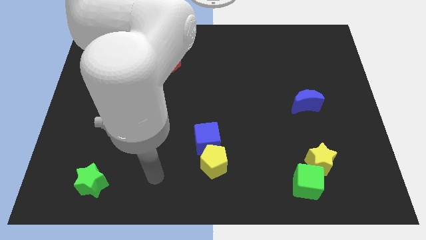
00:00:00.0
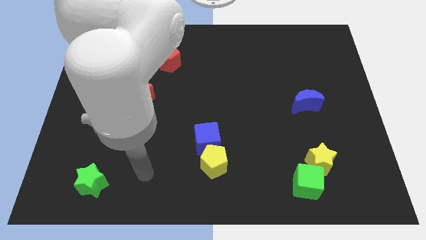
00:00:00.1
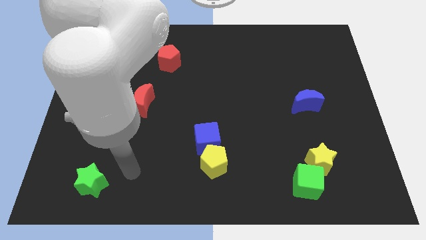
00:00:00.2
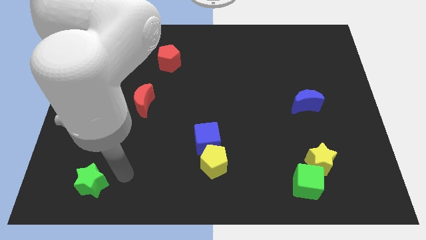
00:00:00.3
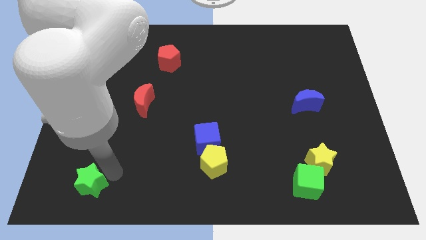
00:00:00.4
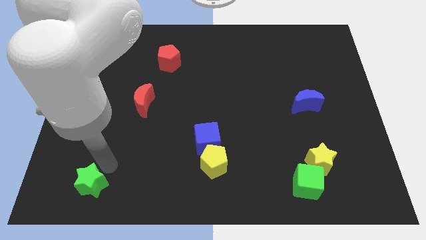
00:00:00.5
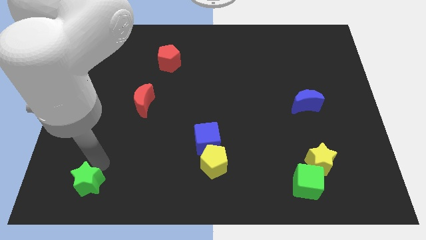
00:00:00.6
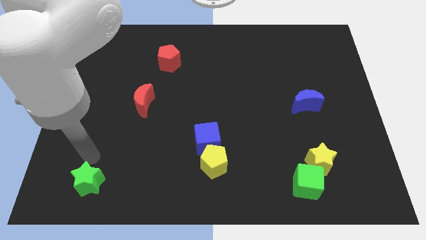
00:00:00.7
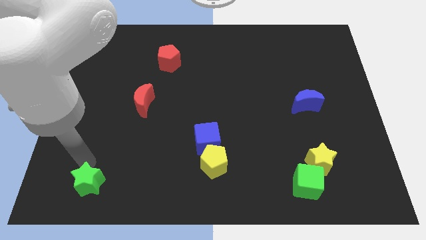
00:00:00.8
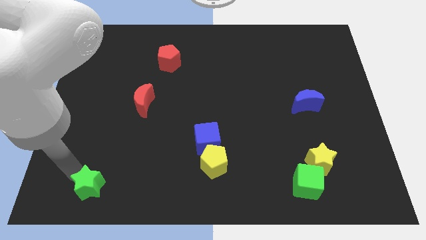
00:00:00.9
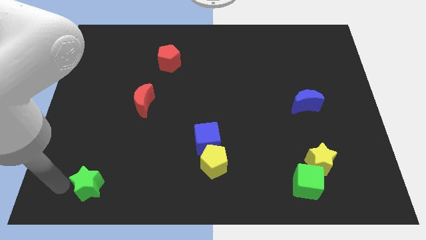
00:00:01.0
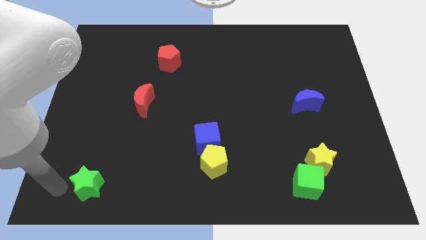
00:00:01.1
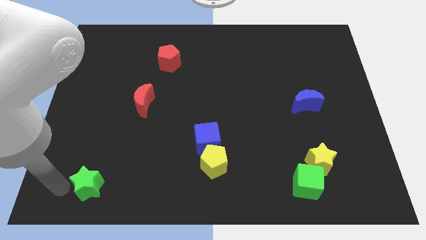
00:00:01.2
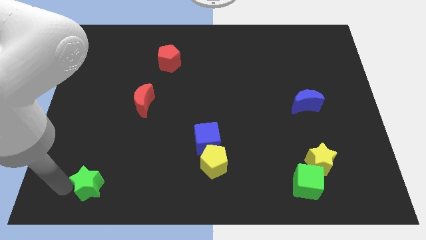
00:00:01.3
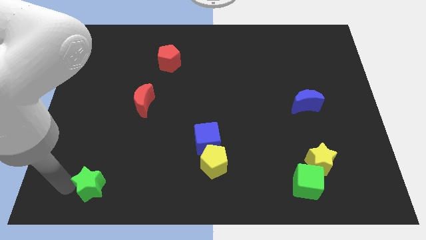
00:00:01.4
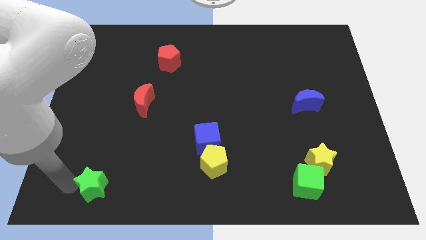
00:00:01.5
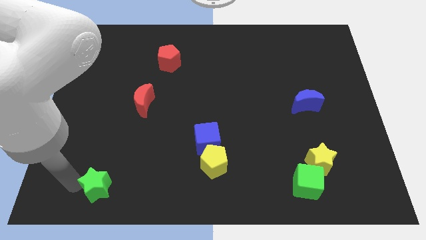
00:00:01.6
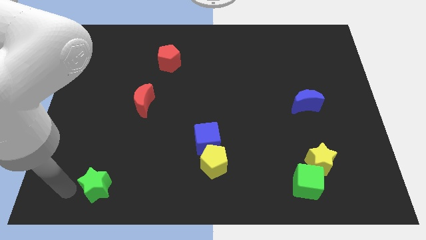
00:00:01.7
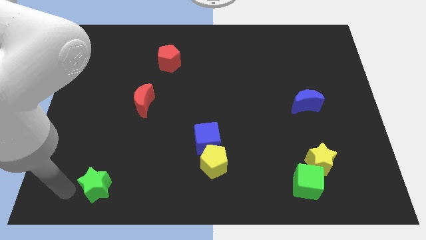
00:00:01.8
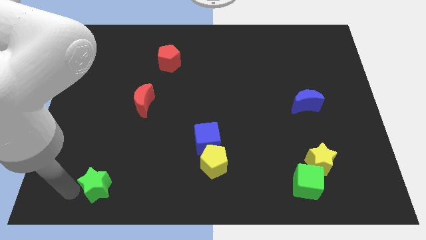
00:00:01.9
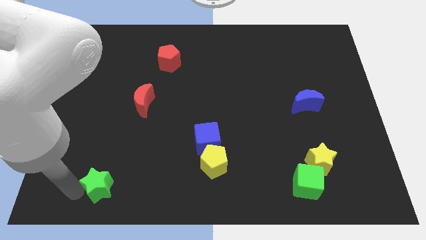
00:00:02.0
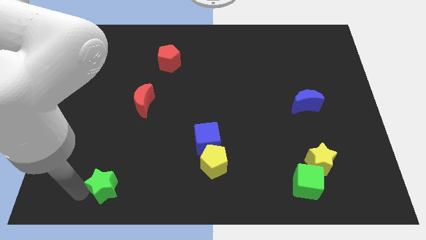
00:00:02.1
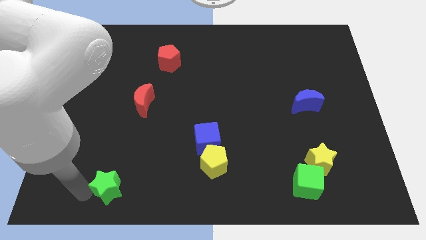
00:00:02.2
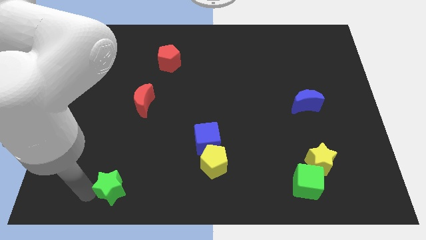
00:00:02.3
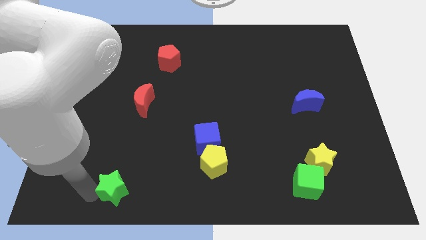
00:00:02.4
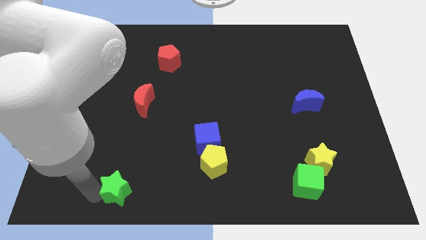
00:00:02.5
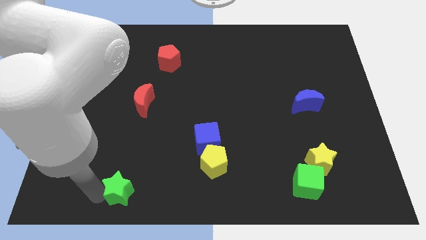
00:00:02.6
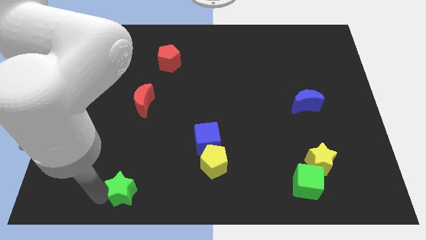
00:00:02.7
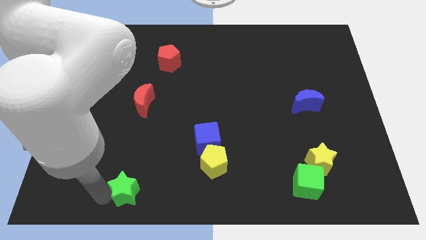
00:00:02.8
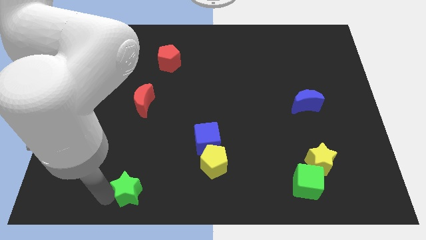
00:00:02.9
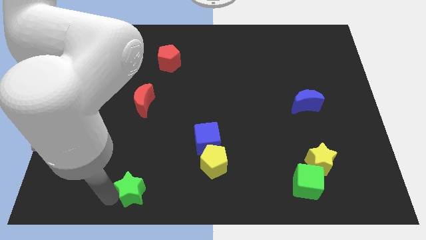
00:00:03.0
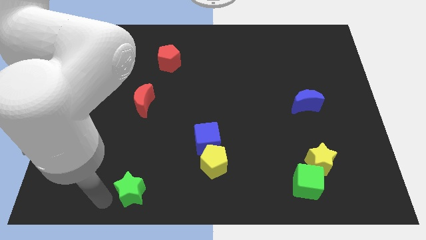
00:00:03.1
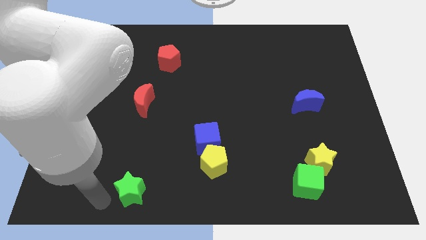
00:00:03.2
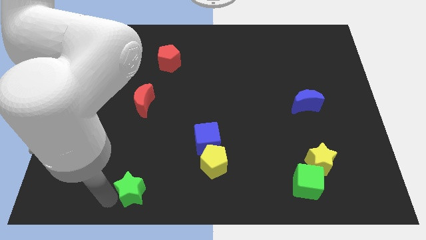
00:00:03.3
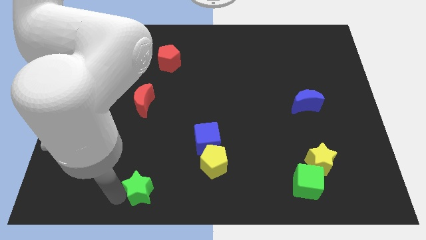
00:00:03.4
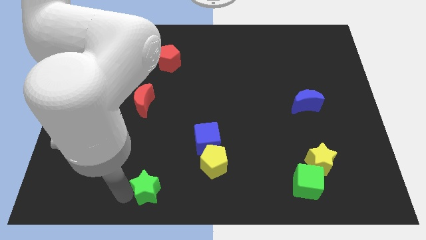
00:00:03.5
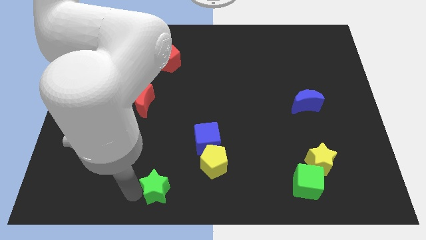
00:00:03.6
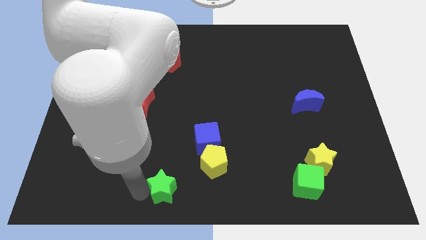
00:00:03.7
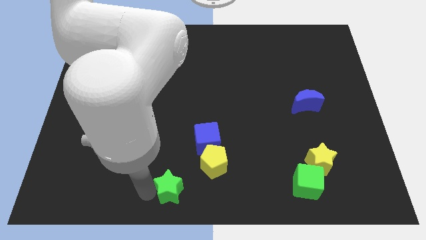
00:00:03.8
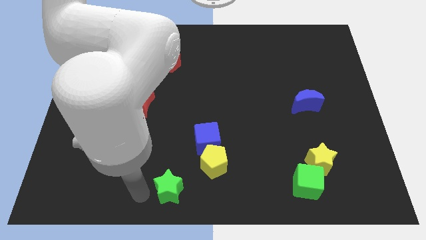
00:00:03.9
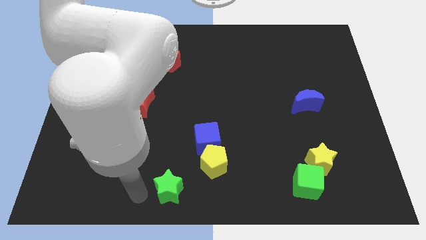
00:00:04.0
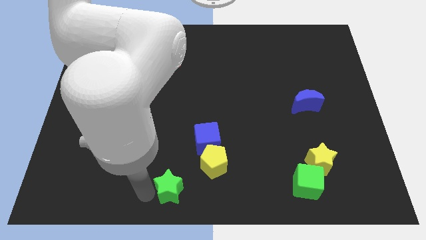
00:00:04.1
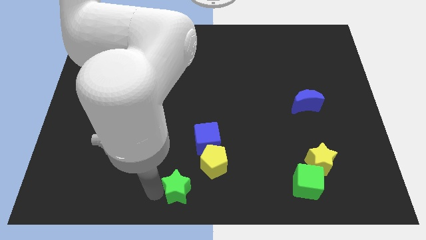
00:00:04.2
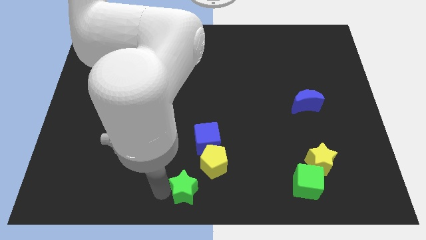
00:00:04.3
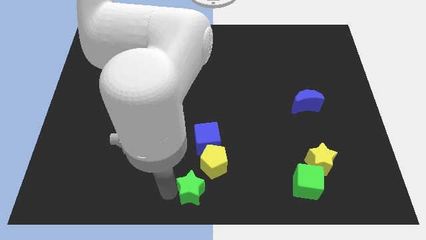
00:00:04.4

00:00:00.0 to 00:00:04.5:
push the green star to the right

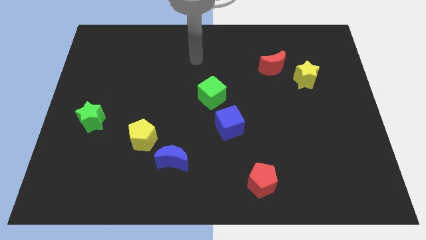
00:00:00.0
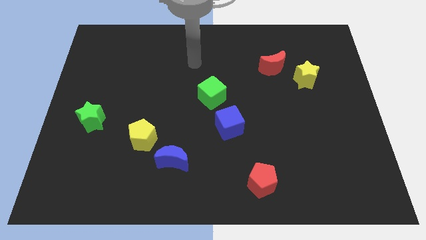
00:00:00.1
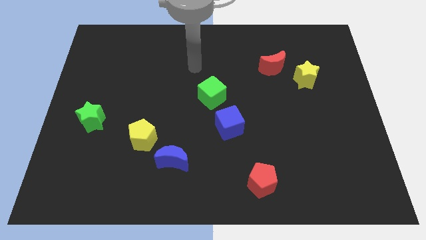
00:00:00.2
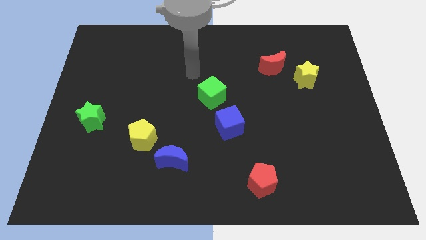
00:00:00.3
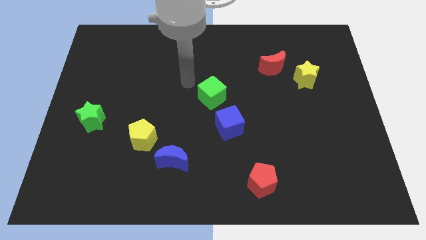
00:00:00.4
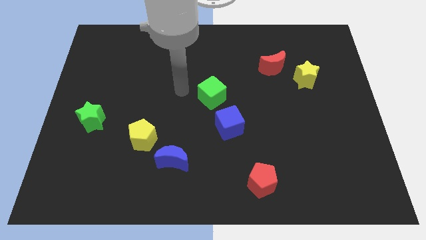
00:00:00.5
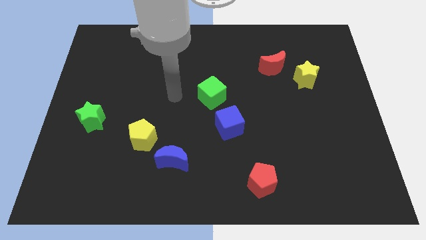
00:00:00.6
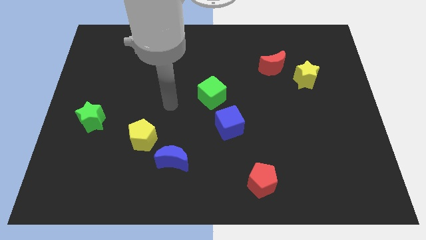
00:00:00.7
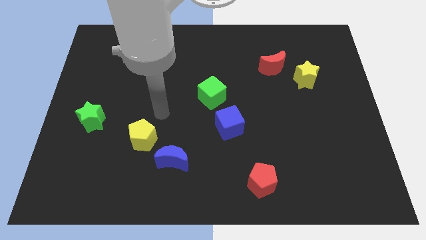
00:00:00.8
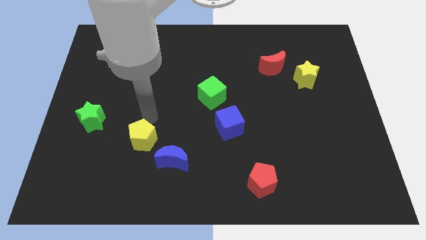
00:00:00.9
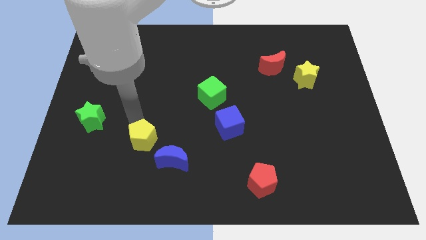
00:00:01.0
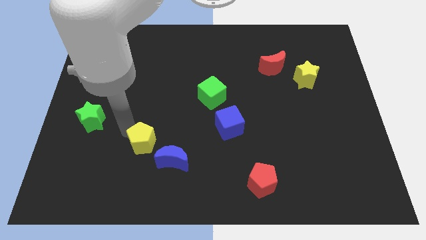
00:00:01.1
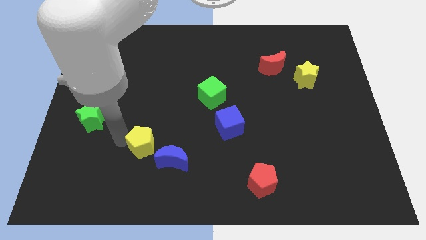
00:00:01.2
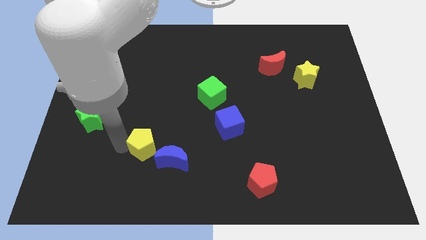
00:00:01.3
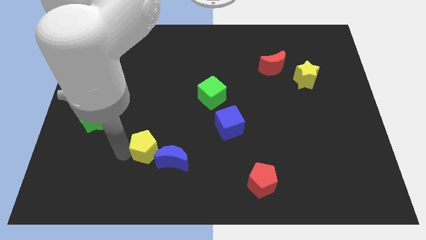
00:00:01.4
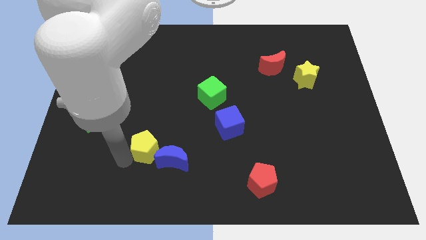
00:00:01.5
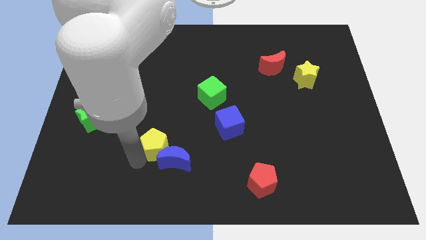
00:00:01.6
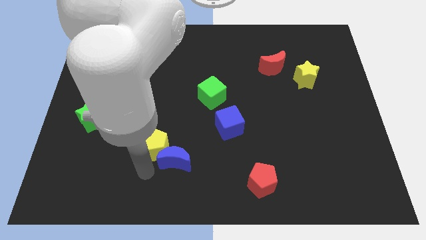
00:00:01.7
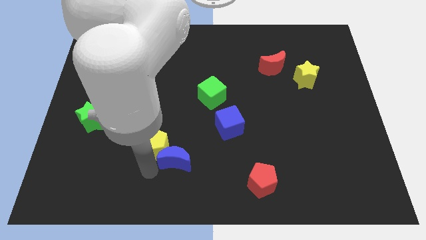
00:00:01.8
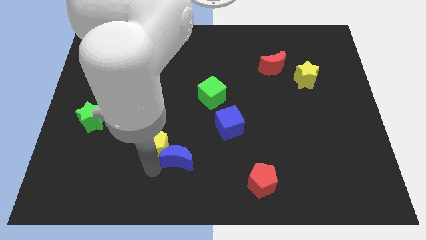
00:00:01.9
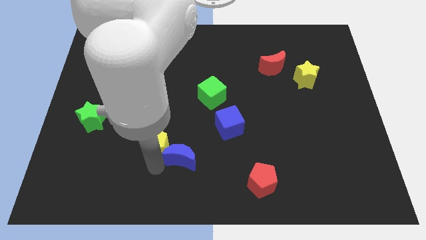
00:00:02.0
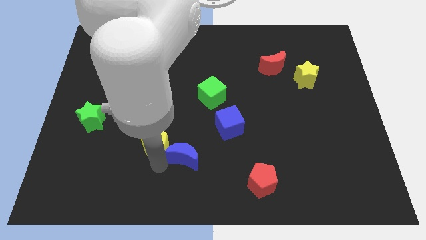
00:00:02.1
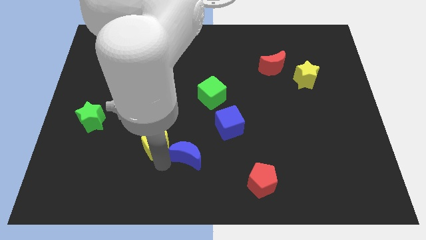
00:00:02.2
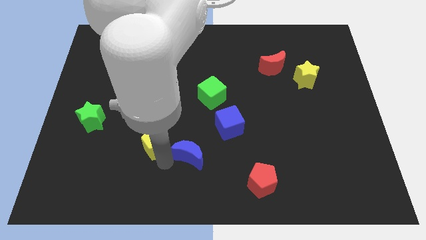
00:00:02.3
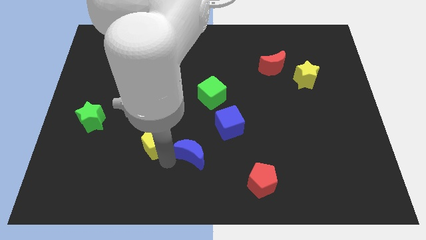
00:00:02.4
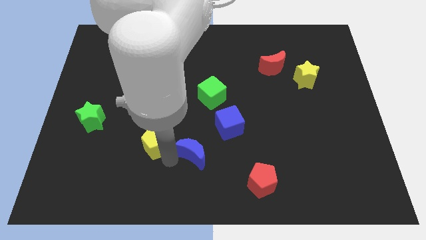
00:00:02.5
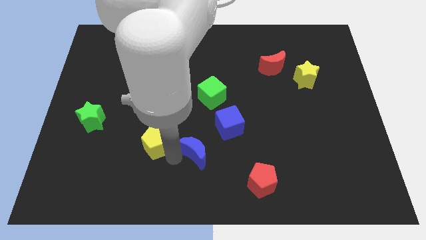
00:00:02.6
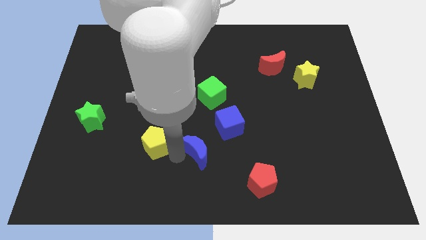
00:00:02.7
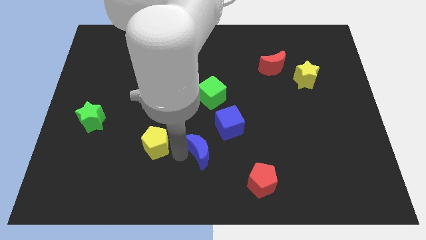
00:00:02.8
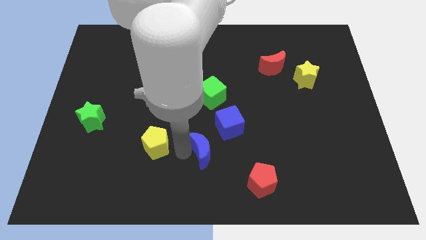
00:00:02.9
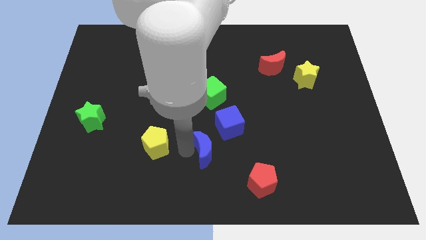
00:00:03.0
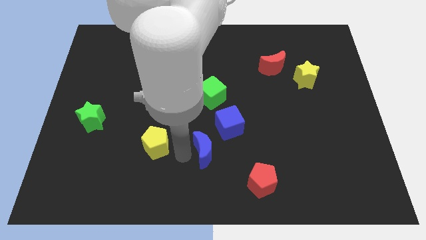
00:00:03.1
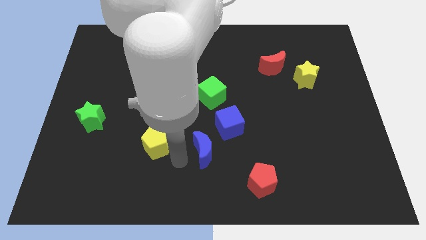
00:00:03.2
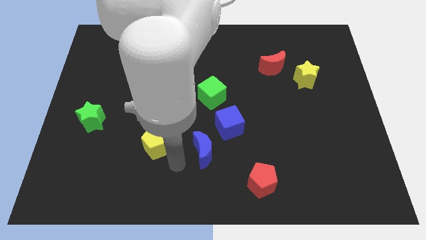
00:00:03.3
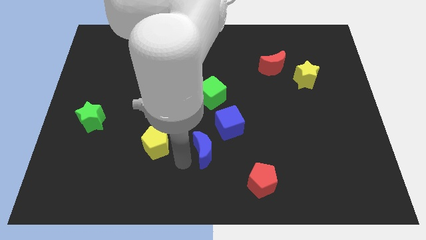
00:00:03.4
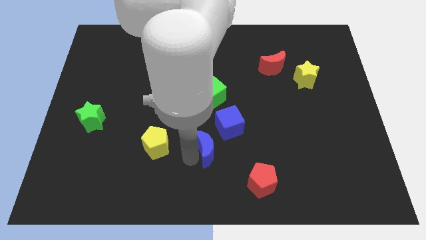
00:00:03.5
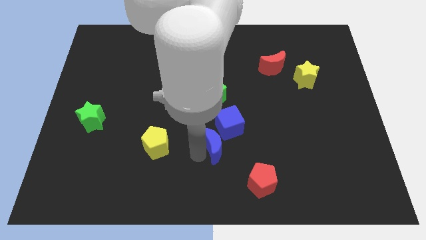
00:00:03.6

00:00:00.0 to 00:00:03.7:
slightly move the blue moon diagonally upwards and right
